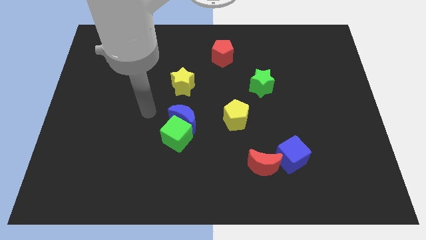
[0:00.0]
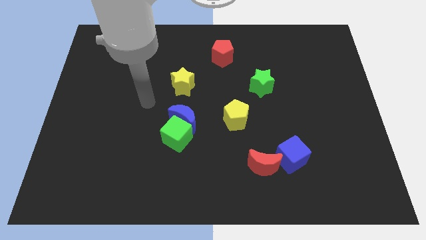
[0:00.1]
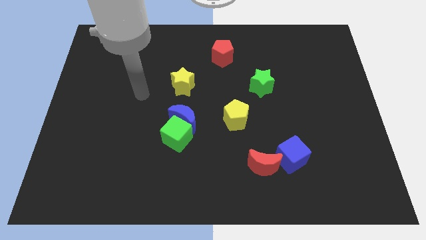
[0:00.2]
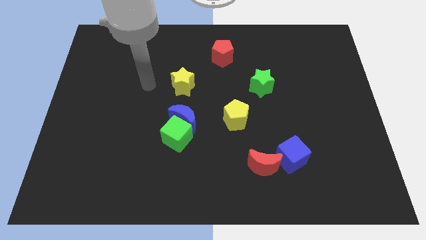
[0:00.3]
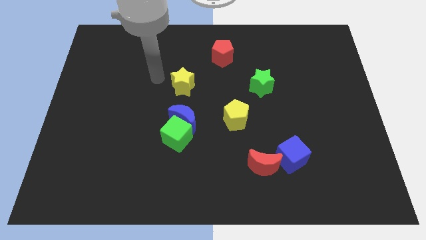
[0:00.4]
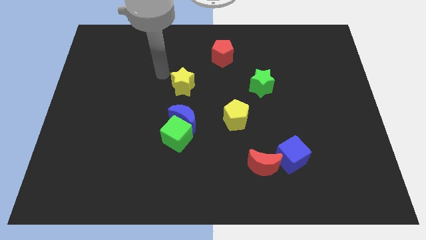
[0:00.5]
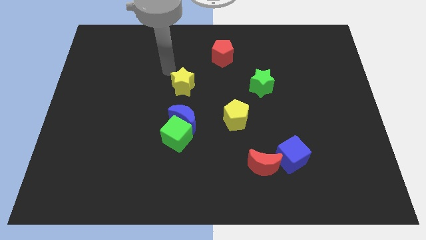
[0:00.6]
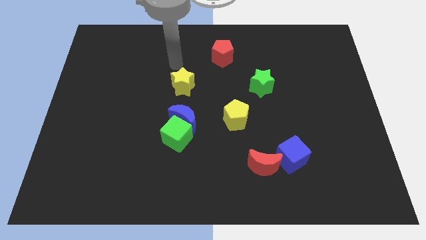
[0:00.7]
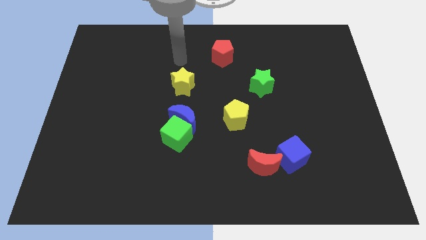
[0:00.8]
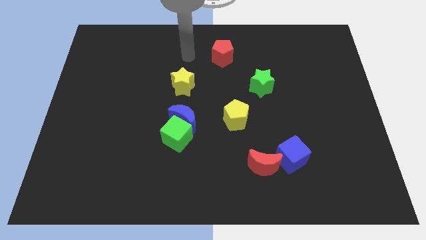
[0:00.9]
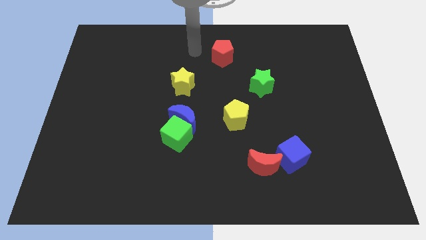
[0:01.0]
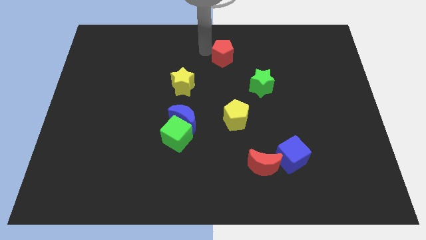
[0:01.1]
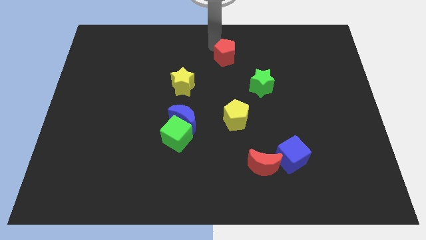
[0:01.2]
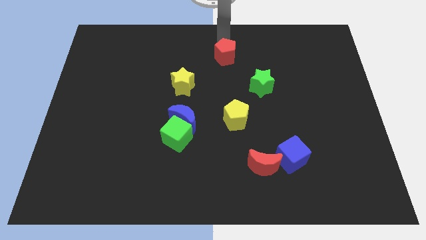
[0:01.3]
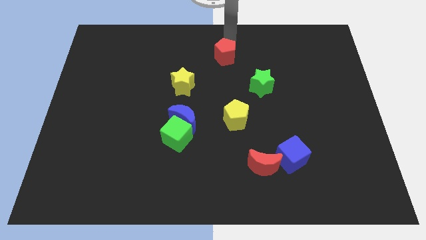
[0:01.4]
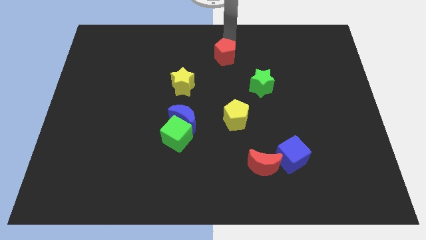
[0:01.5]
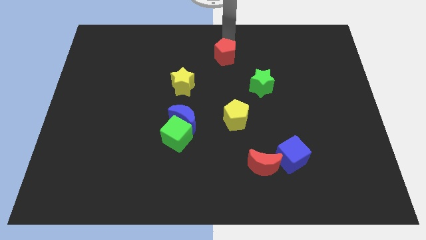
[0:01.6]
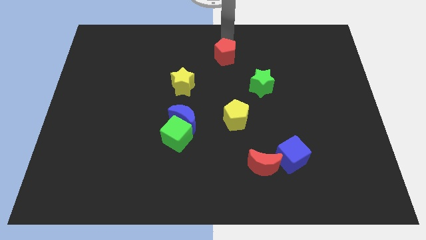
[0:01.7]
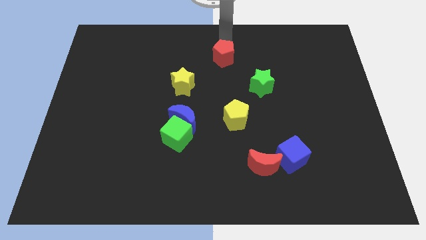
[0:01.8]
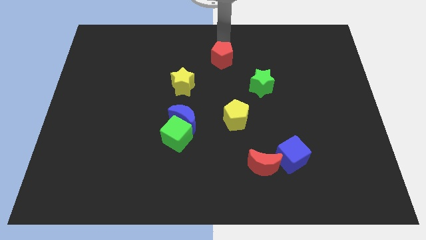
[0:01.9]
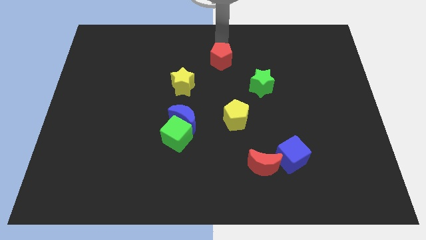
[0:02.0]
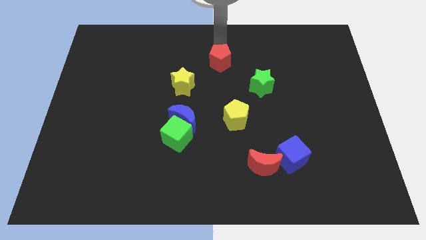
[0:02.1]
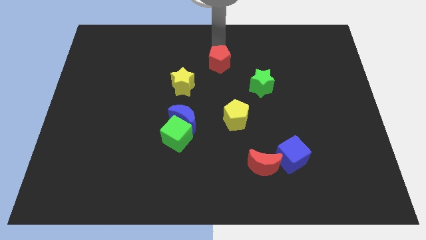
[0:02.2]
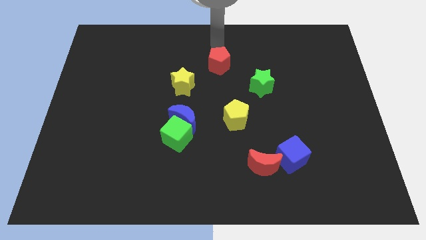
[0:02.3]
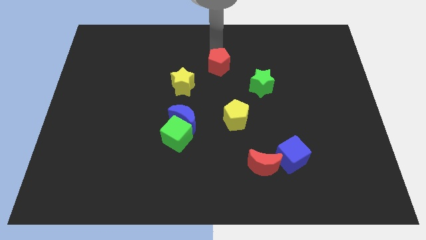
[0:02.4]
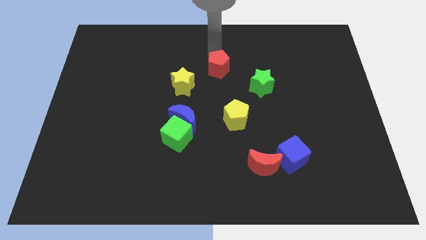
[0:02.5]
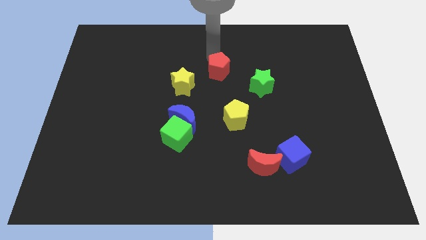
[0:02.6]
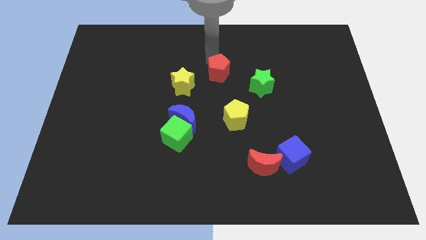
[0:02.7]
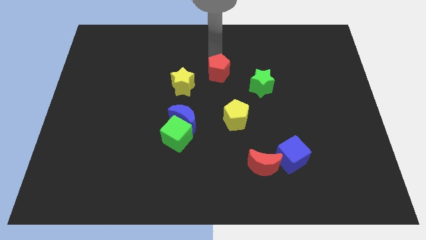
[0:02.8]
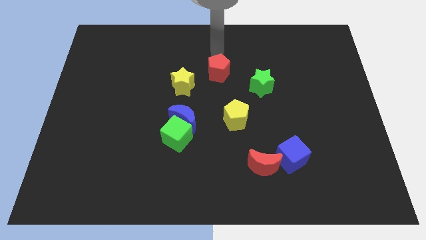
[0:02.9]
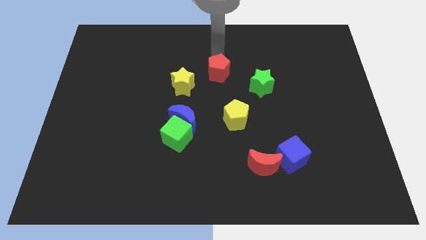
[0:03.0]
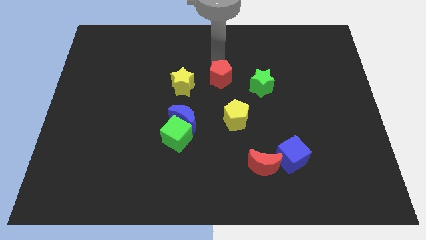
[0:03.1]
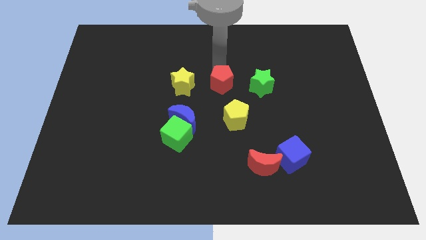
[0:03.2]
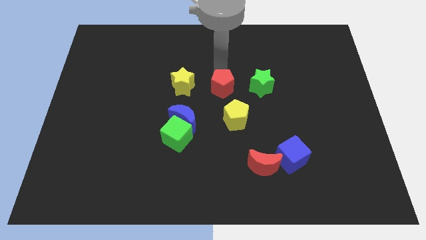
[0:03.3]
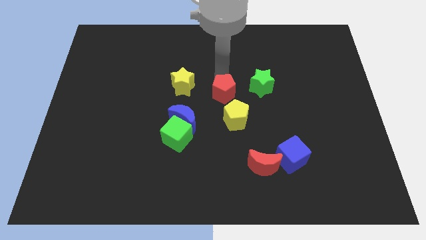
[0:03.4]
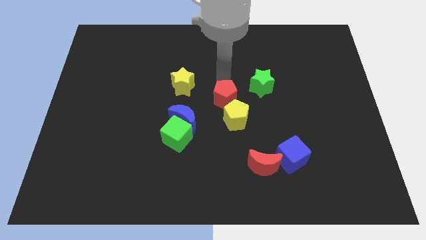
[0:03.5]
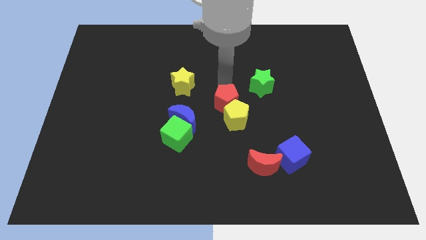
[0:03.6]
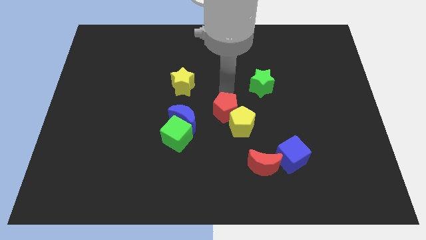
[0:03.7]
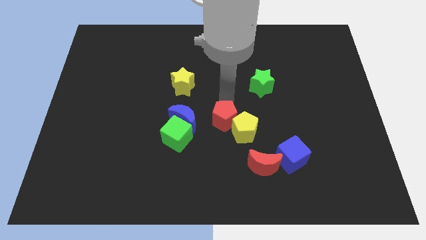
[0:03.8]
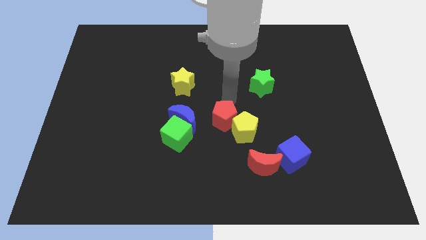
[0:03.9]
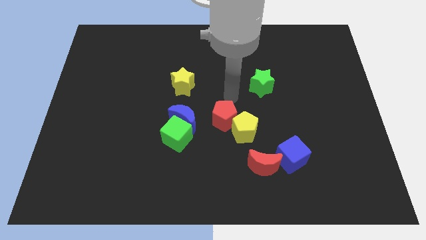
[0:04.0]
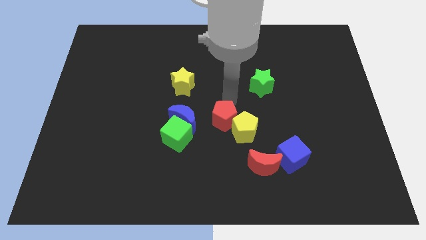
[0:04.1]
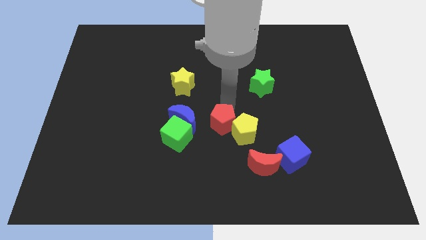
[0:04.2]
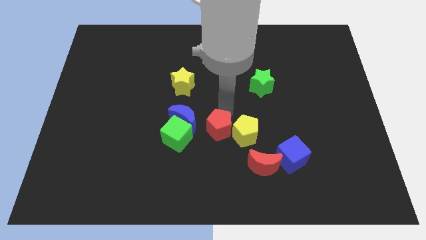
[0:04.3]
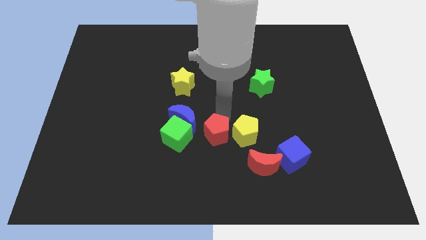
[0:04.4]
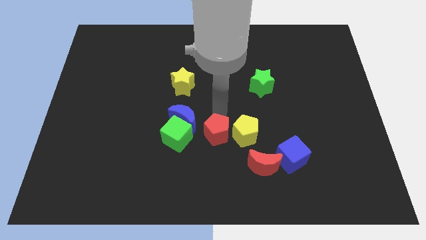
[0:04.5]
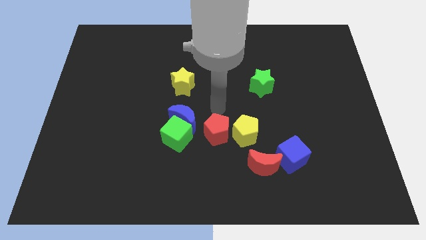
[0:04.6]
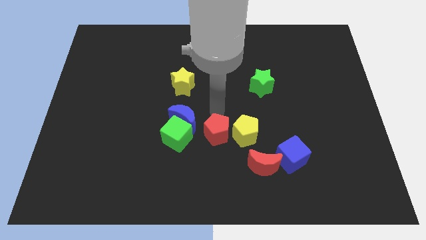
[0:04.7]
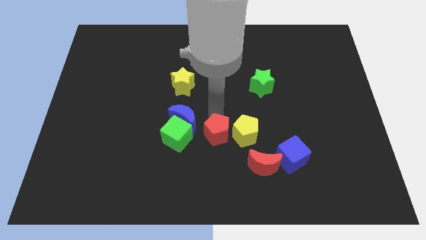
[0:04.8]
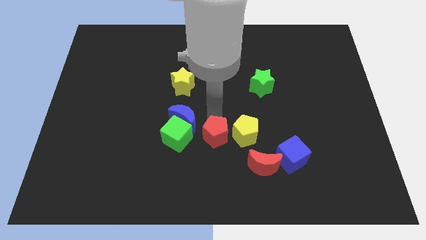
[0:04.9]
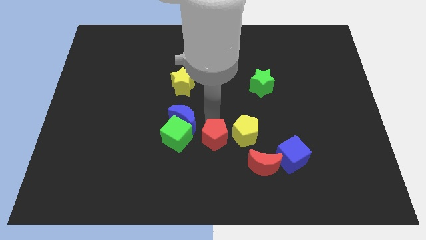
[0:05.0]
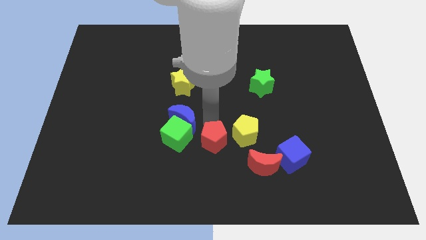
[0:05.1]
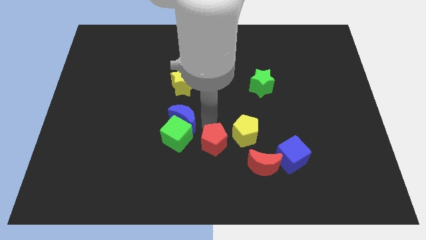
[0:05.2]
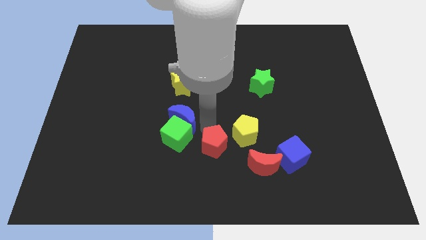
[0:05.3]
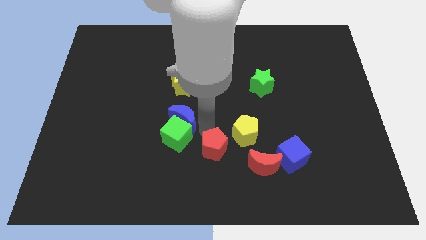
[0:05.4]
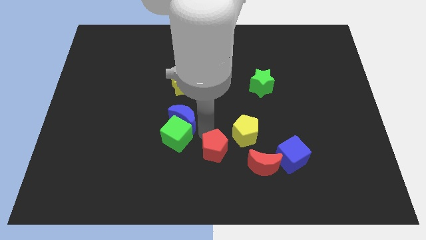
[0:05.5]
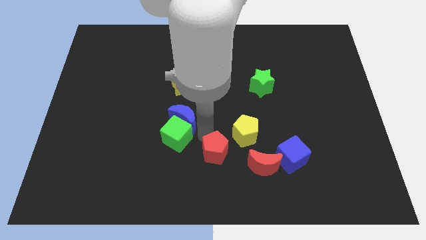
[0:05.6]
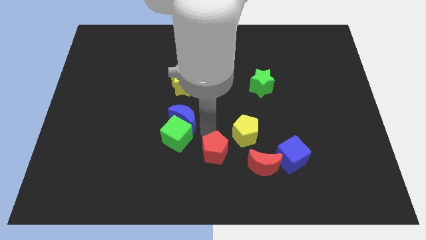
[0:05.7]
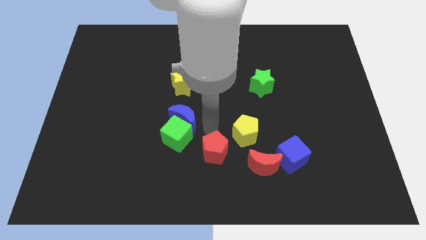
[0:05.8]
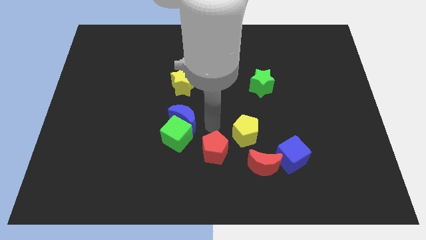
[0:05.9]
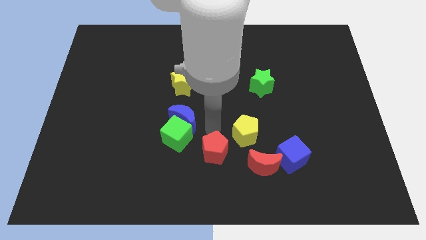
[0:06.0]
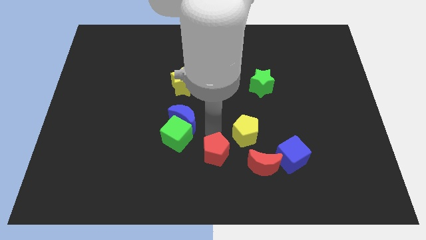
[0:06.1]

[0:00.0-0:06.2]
slide the red pentagon to the bottom

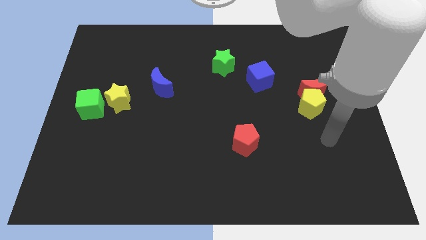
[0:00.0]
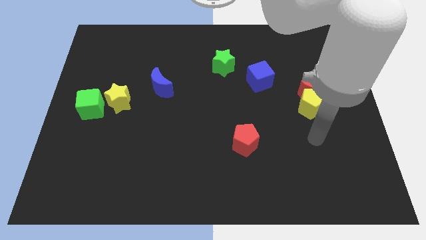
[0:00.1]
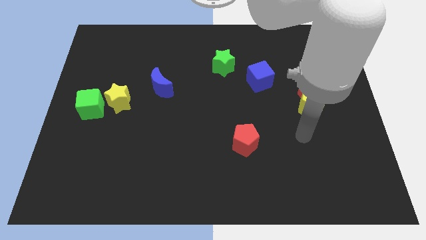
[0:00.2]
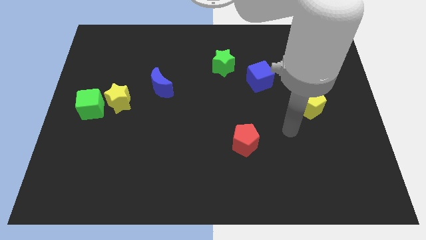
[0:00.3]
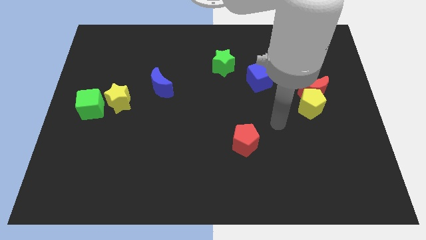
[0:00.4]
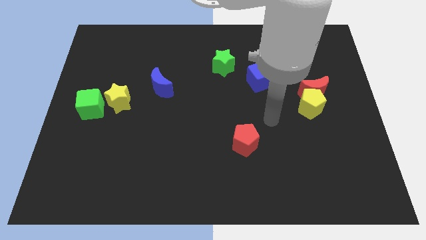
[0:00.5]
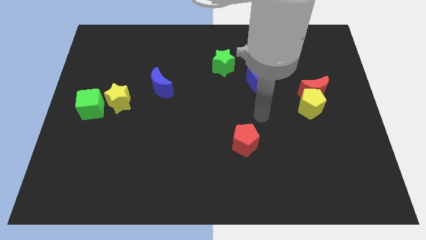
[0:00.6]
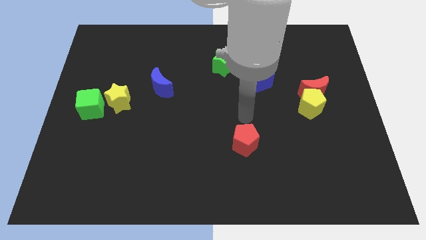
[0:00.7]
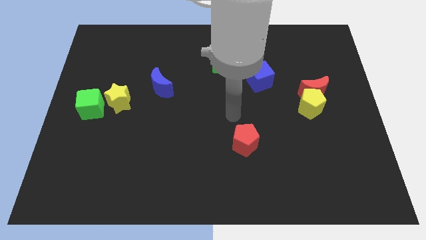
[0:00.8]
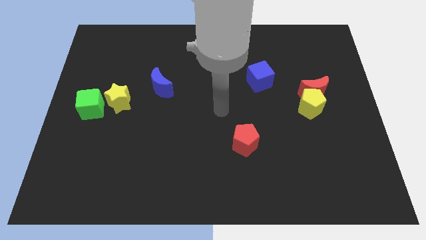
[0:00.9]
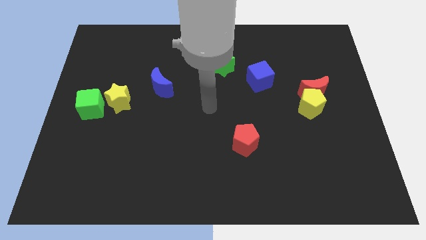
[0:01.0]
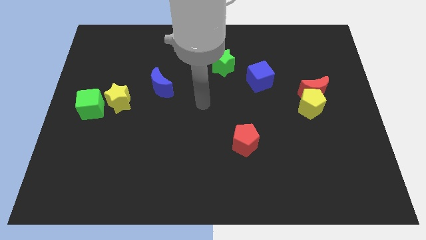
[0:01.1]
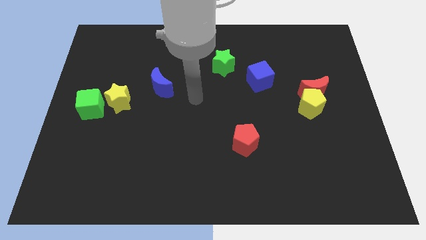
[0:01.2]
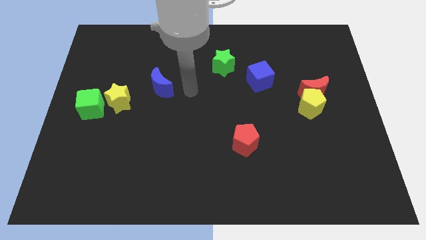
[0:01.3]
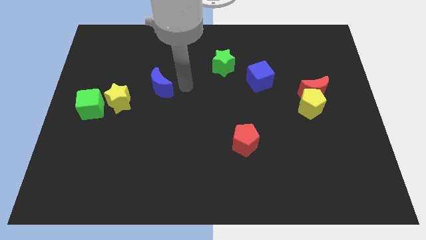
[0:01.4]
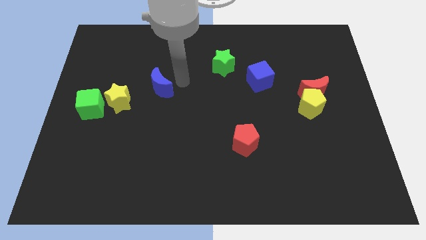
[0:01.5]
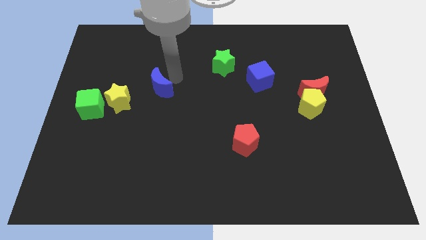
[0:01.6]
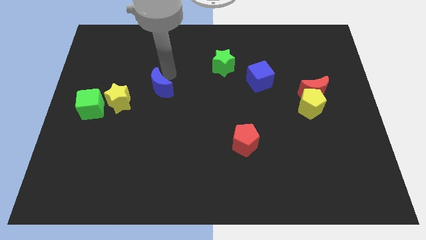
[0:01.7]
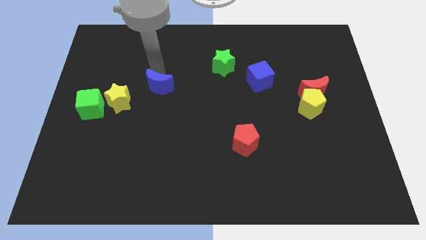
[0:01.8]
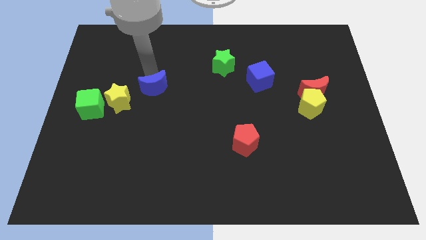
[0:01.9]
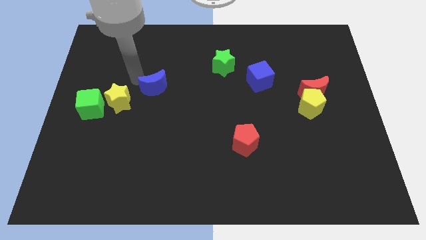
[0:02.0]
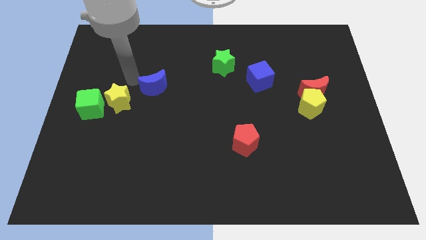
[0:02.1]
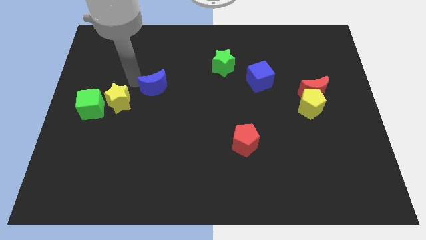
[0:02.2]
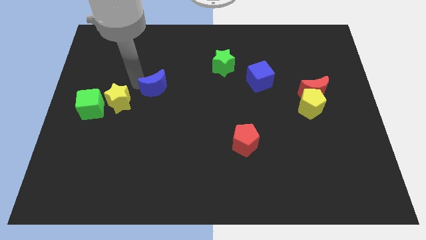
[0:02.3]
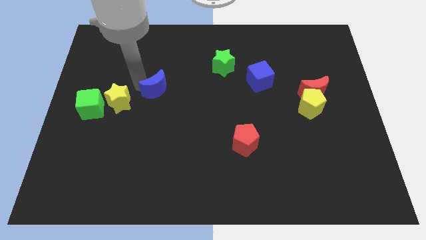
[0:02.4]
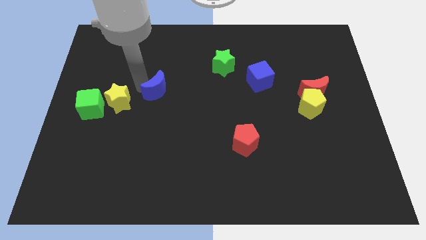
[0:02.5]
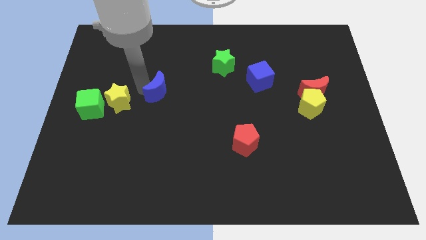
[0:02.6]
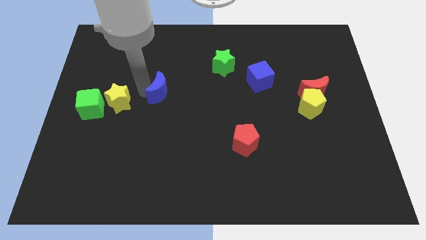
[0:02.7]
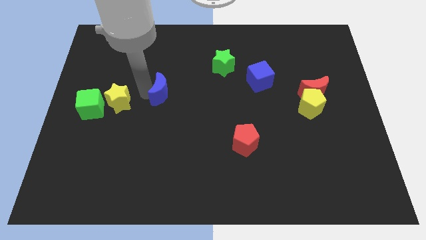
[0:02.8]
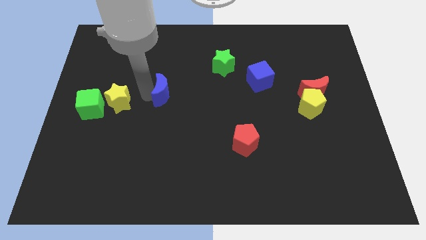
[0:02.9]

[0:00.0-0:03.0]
push the blue moon to the center of the board
